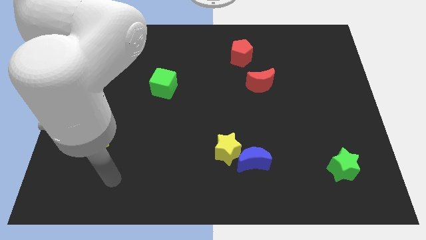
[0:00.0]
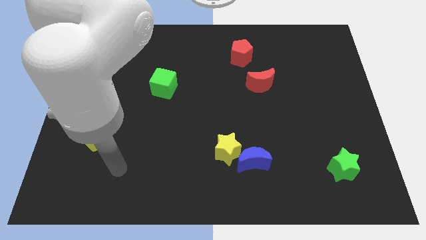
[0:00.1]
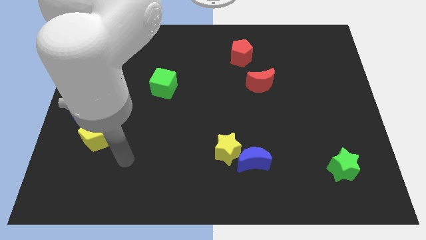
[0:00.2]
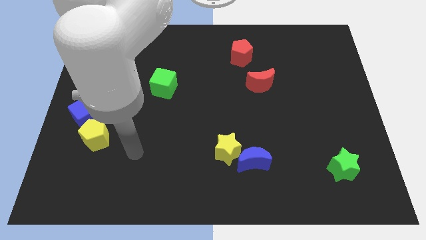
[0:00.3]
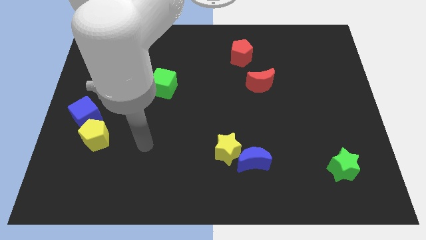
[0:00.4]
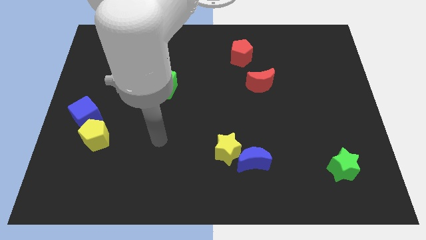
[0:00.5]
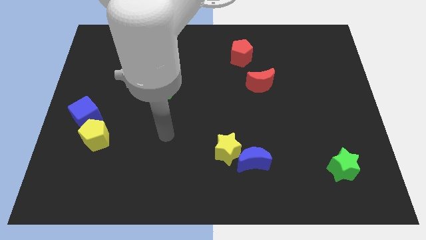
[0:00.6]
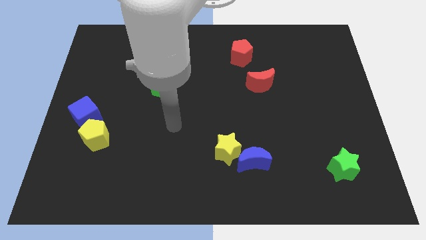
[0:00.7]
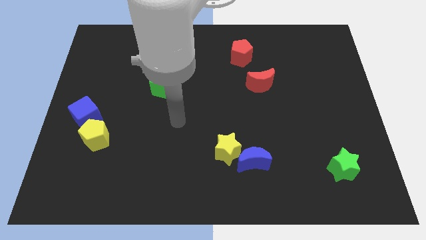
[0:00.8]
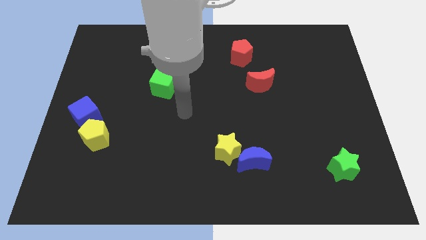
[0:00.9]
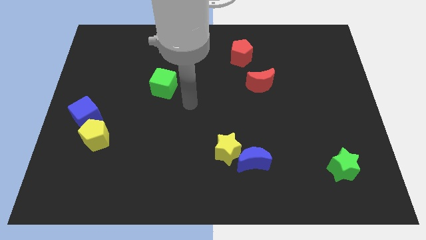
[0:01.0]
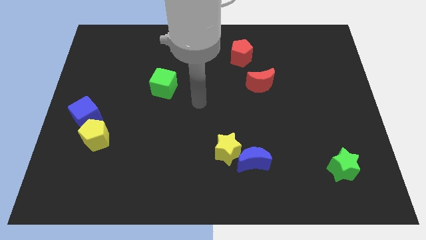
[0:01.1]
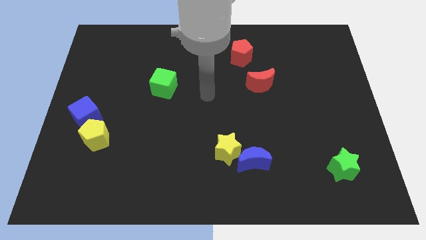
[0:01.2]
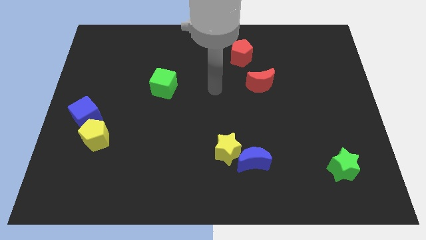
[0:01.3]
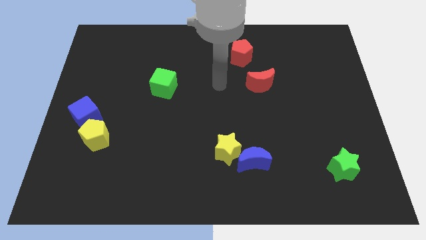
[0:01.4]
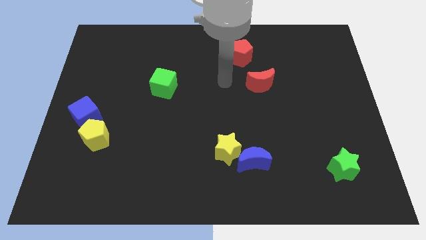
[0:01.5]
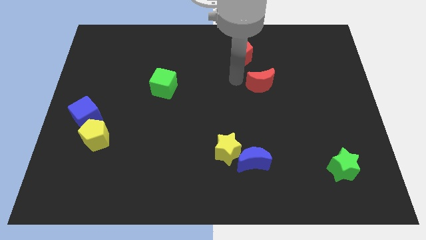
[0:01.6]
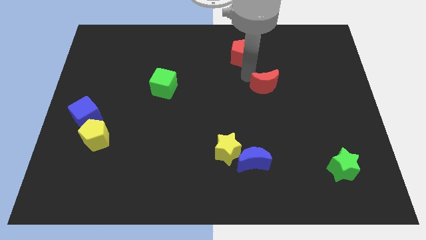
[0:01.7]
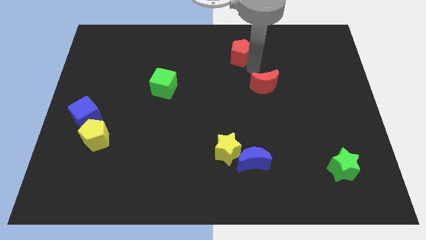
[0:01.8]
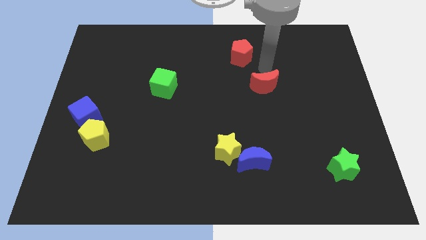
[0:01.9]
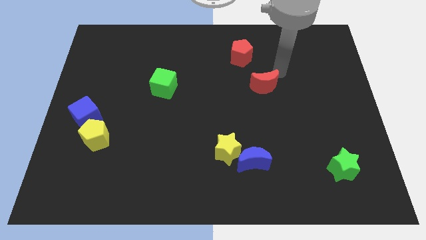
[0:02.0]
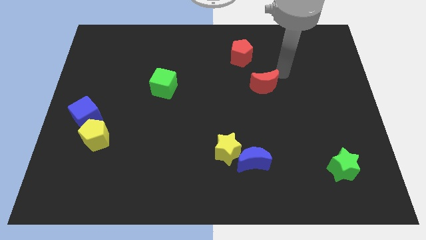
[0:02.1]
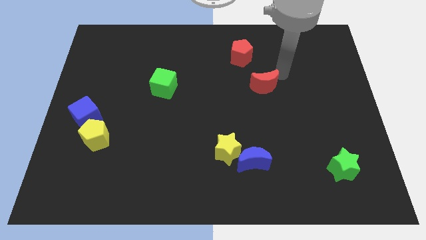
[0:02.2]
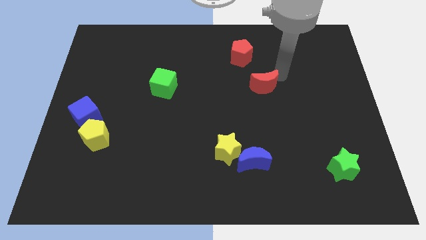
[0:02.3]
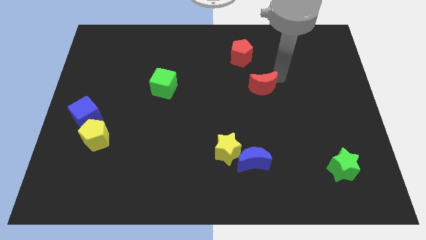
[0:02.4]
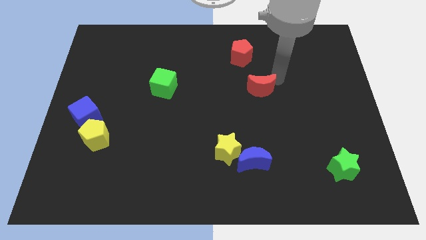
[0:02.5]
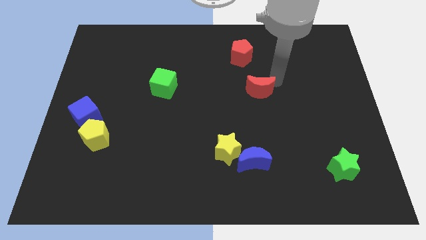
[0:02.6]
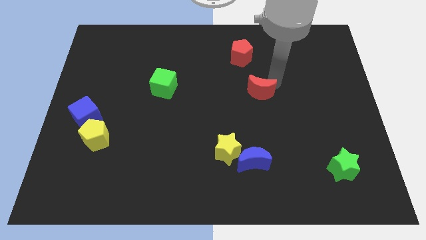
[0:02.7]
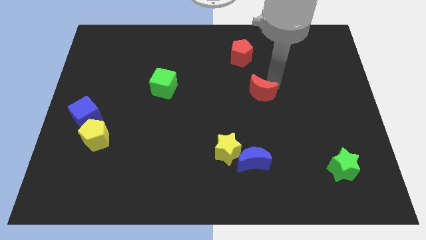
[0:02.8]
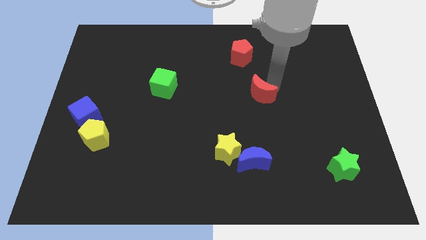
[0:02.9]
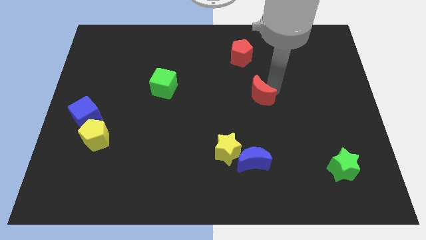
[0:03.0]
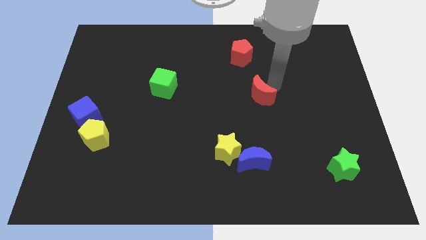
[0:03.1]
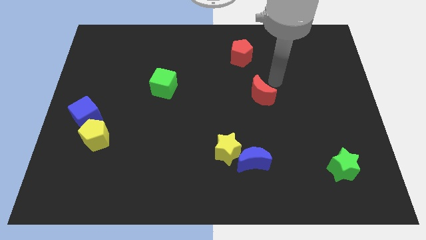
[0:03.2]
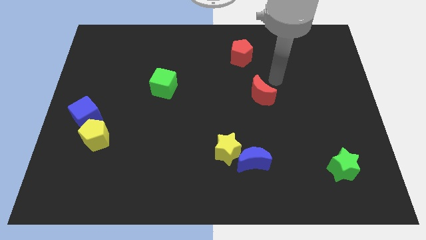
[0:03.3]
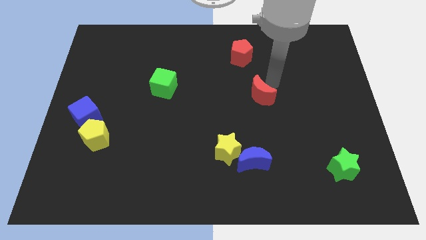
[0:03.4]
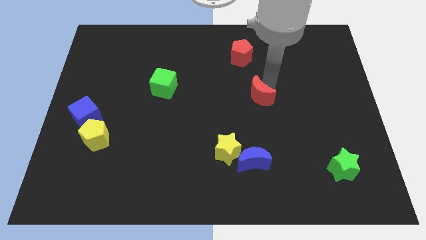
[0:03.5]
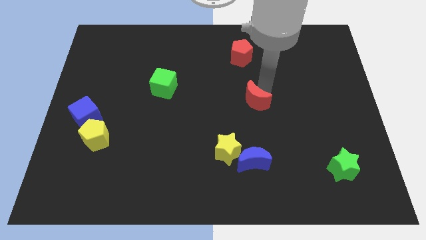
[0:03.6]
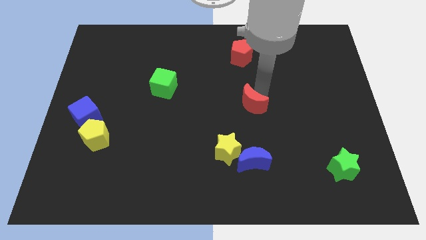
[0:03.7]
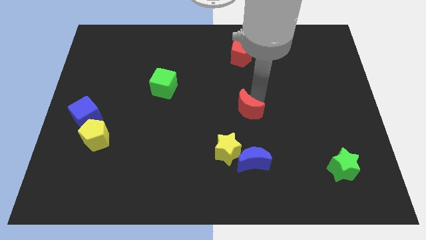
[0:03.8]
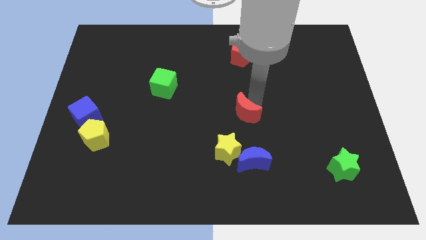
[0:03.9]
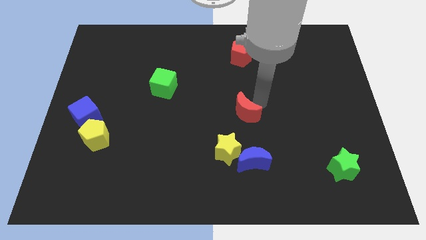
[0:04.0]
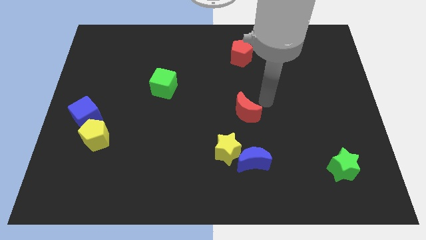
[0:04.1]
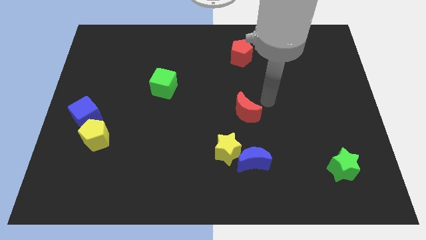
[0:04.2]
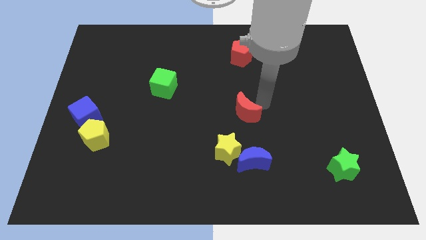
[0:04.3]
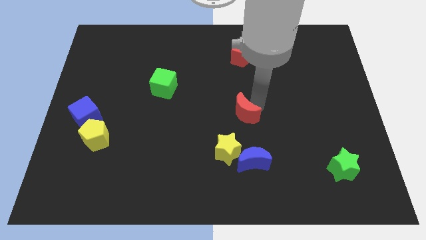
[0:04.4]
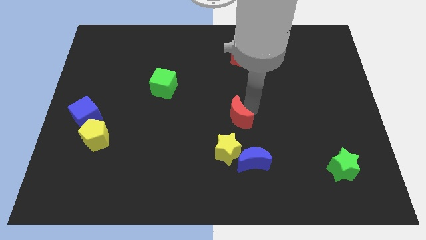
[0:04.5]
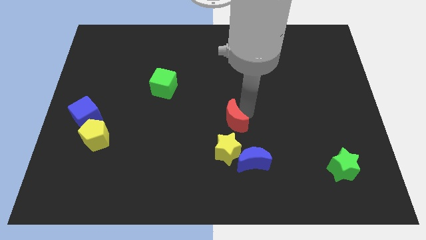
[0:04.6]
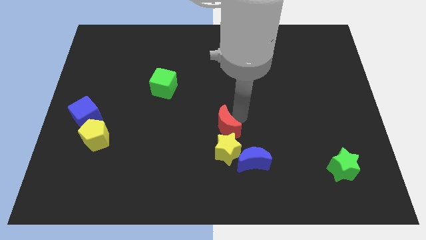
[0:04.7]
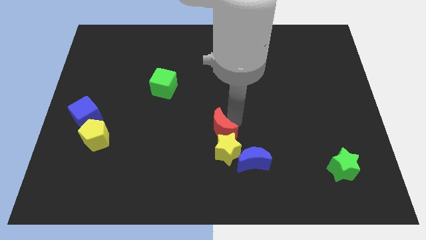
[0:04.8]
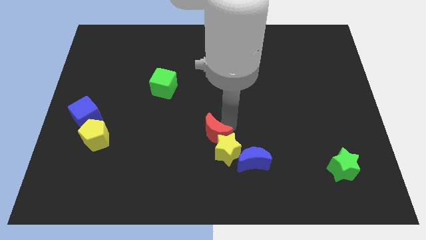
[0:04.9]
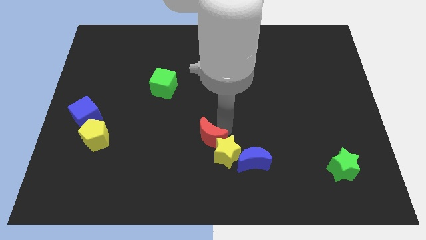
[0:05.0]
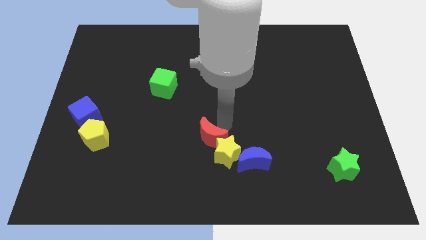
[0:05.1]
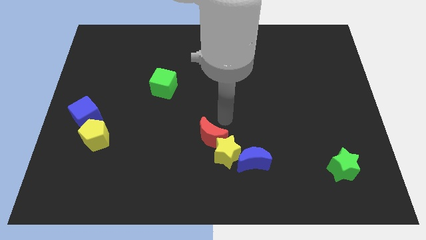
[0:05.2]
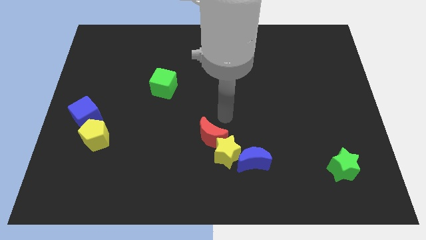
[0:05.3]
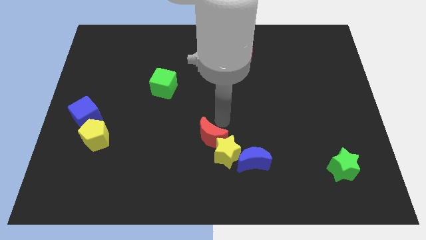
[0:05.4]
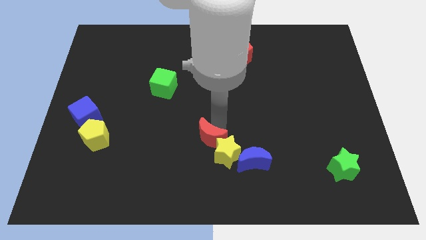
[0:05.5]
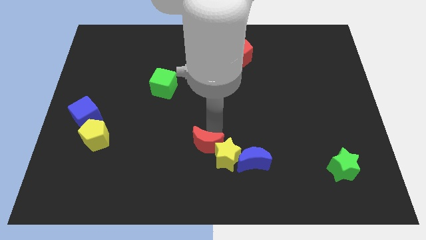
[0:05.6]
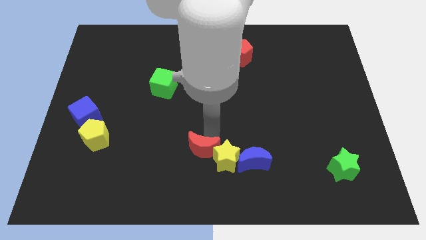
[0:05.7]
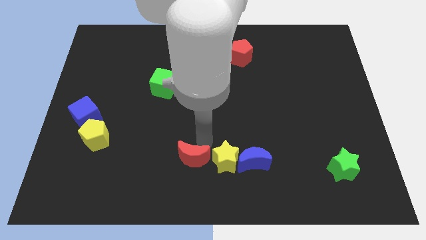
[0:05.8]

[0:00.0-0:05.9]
push the red moon to the bottom

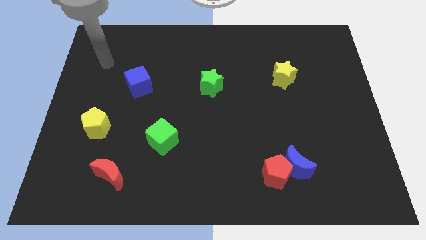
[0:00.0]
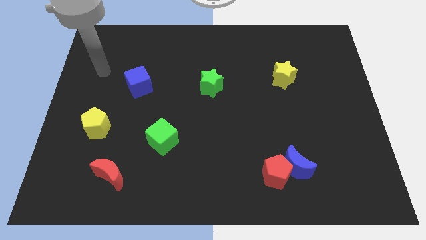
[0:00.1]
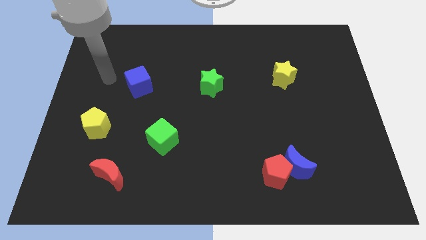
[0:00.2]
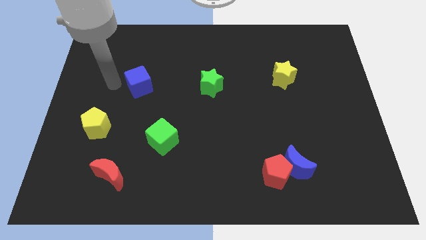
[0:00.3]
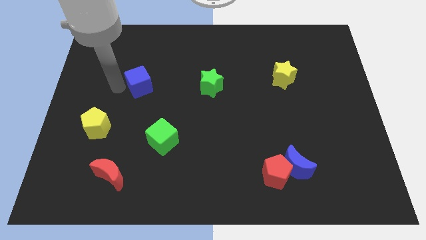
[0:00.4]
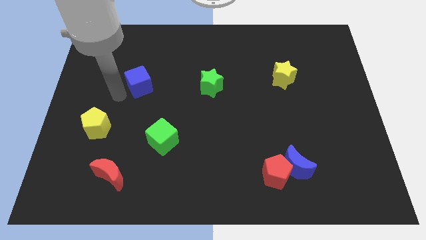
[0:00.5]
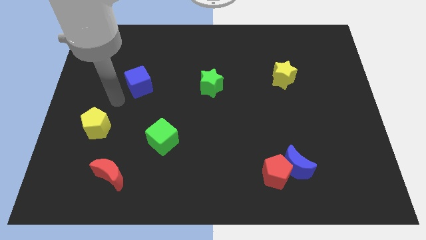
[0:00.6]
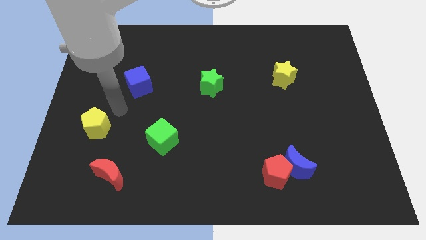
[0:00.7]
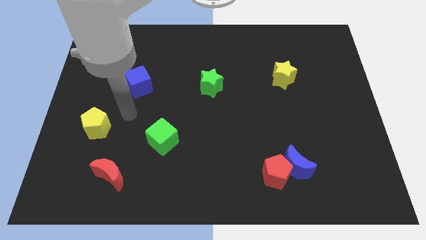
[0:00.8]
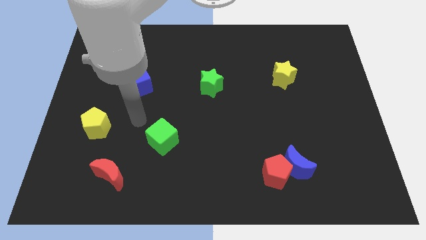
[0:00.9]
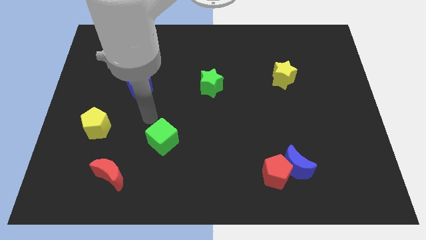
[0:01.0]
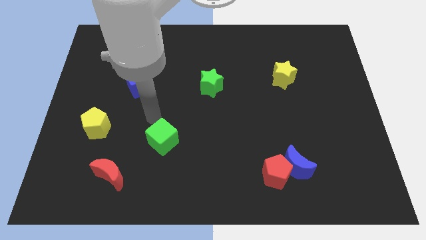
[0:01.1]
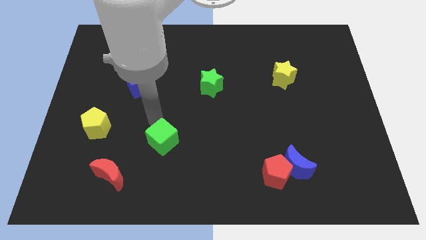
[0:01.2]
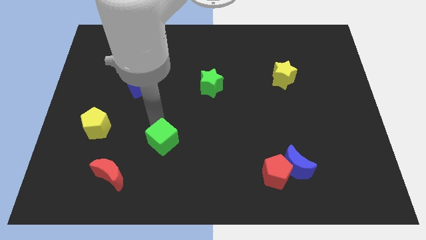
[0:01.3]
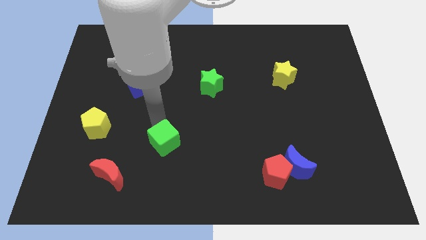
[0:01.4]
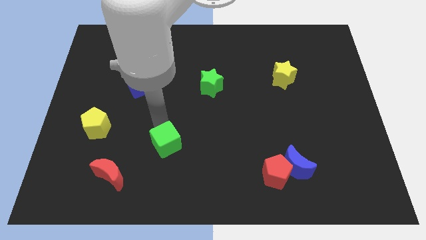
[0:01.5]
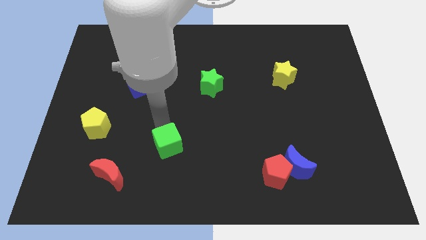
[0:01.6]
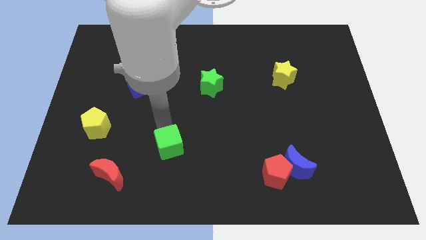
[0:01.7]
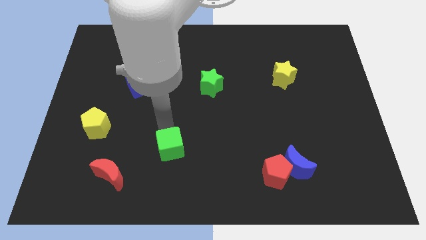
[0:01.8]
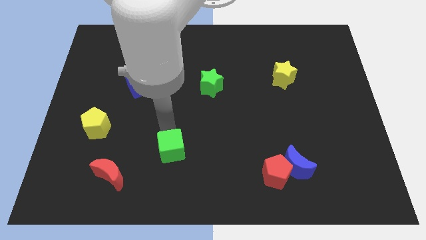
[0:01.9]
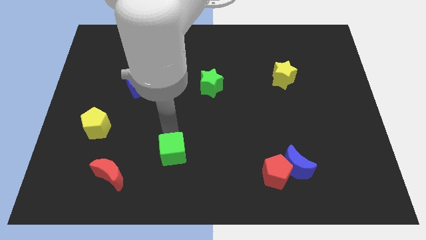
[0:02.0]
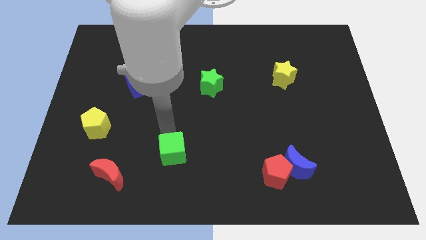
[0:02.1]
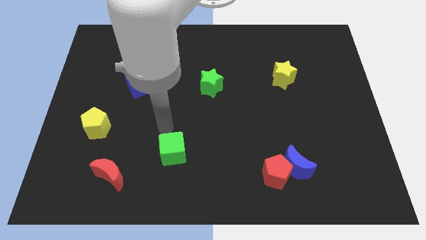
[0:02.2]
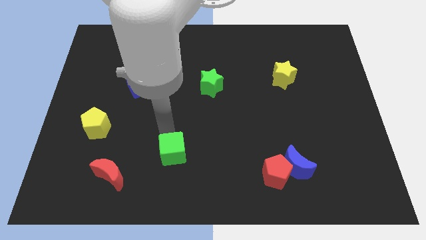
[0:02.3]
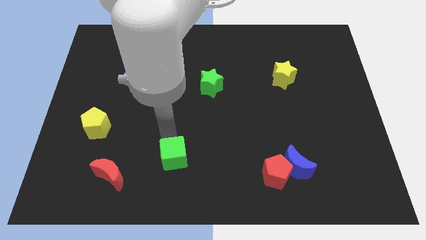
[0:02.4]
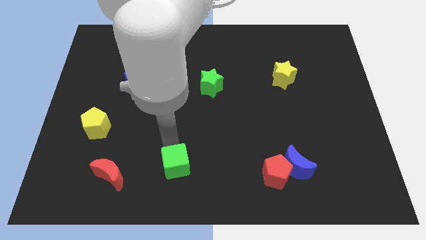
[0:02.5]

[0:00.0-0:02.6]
put the green cube to the bottom side
